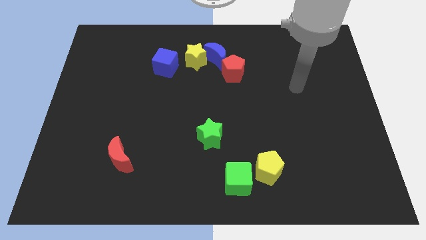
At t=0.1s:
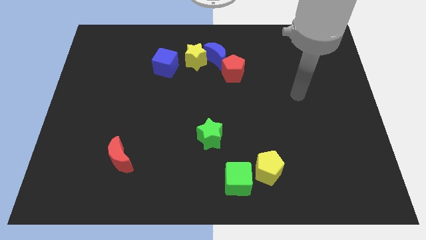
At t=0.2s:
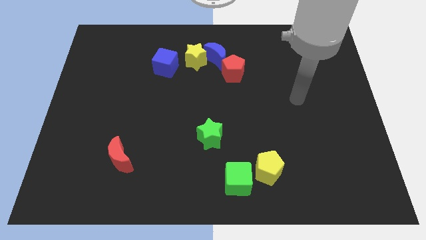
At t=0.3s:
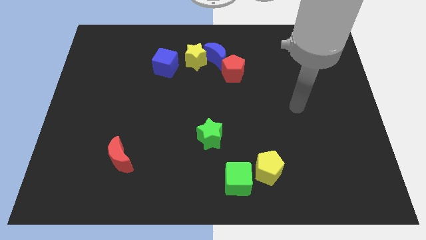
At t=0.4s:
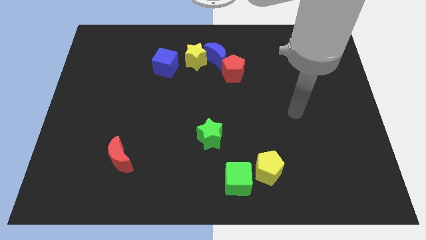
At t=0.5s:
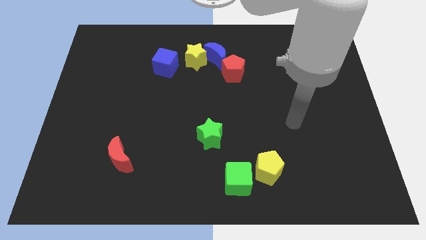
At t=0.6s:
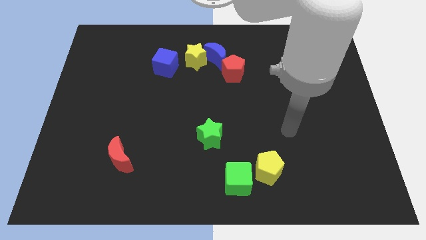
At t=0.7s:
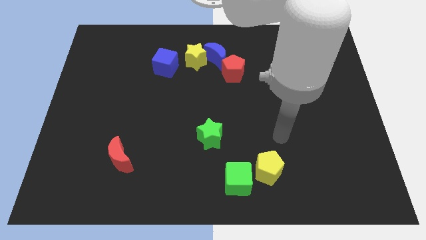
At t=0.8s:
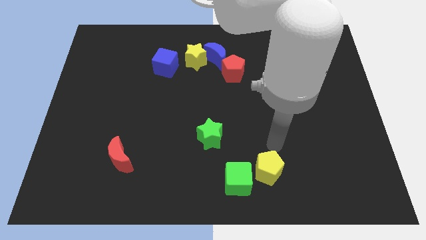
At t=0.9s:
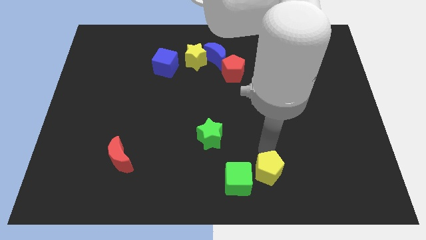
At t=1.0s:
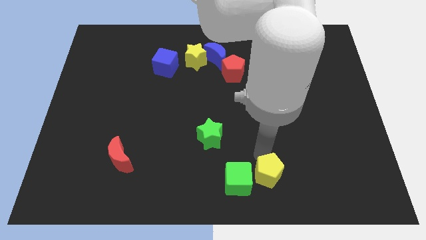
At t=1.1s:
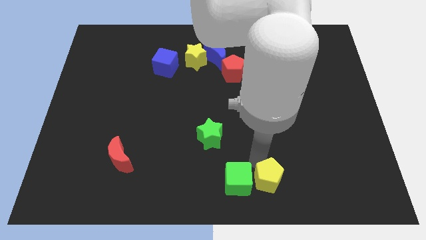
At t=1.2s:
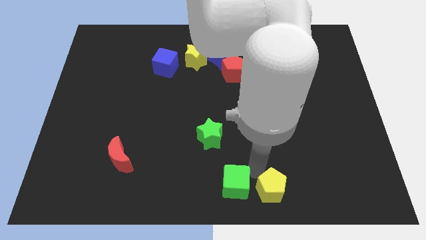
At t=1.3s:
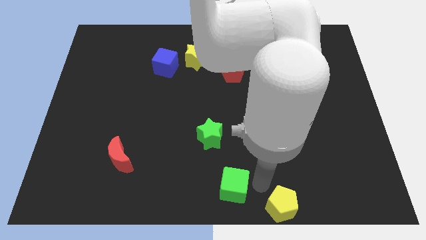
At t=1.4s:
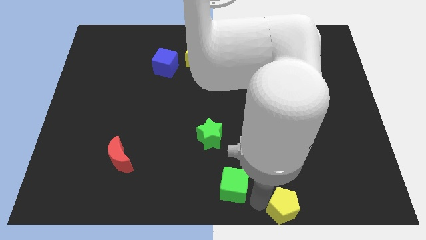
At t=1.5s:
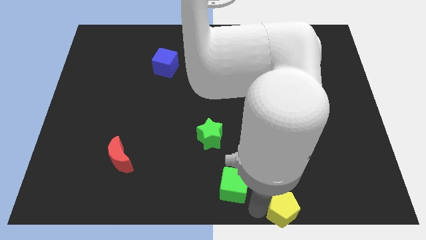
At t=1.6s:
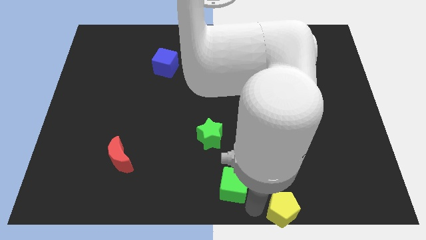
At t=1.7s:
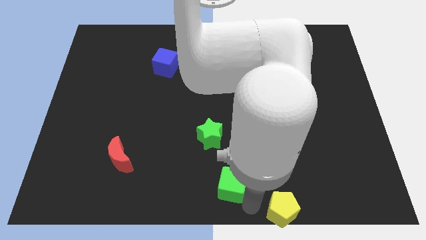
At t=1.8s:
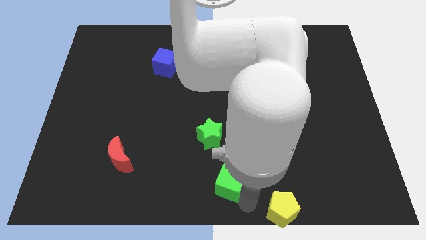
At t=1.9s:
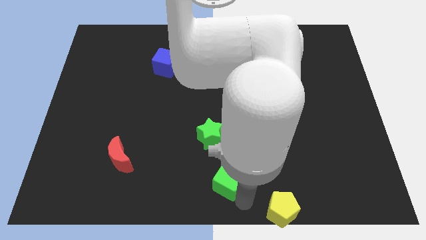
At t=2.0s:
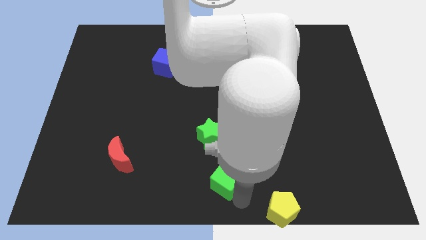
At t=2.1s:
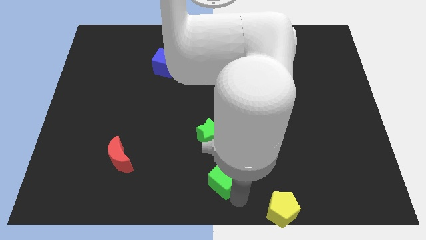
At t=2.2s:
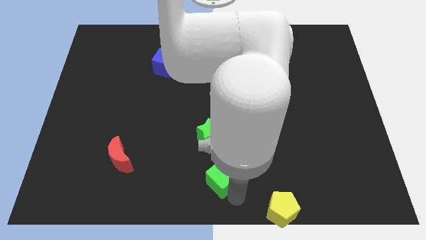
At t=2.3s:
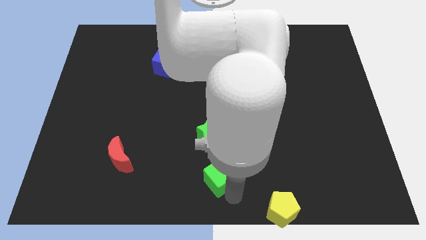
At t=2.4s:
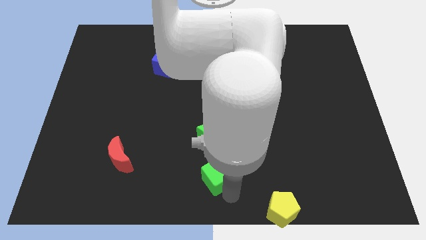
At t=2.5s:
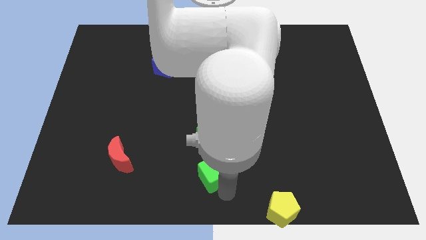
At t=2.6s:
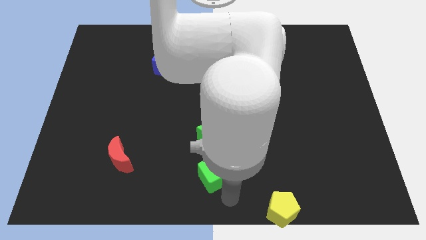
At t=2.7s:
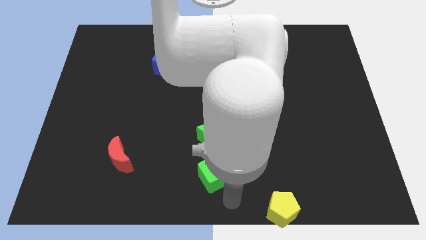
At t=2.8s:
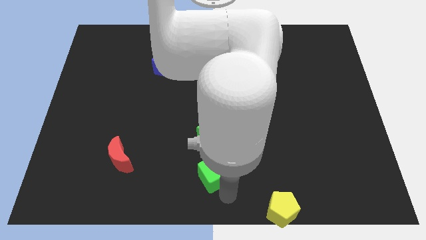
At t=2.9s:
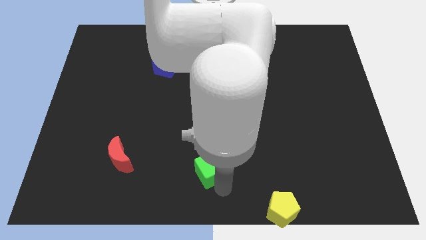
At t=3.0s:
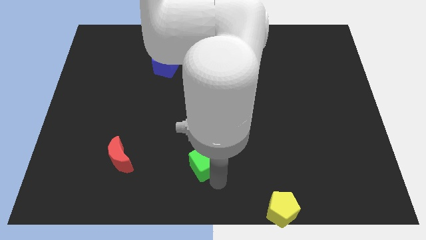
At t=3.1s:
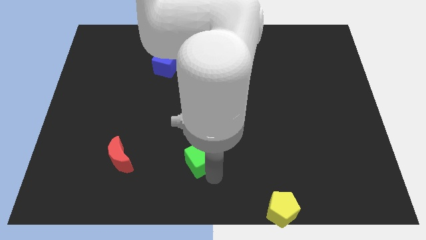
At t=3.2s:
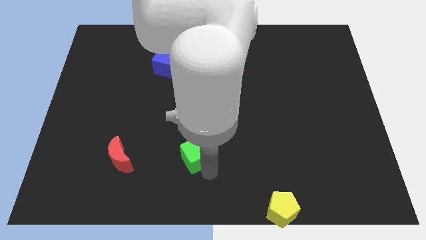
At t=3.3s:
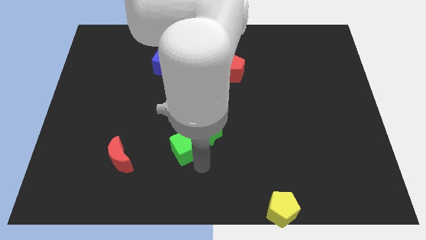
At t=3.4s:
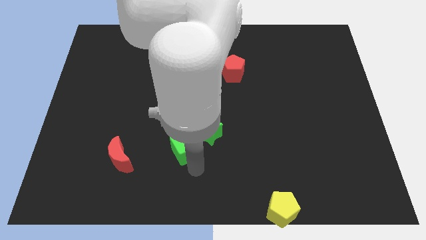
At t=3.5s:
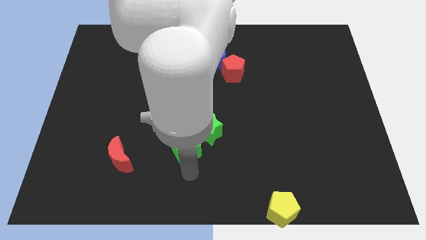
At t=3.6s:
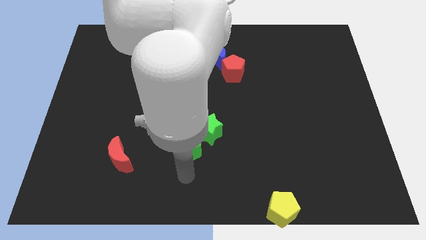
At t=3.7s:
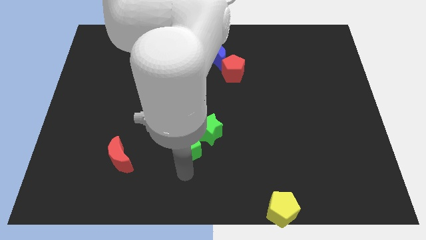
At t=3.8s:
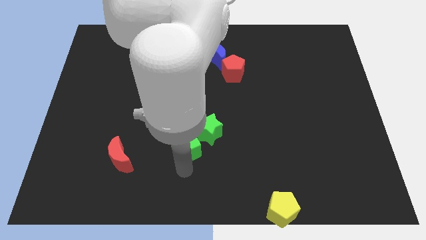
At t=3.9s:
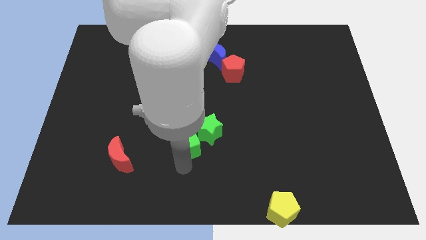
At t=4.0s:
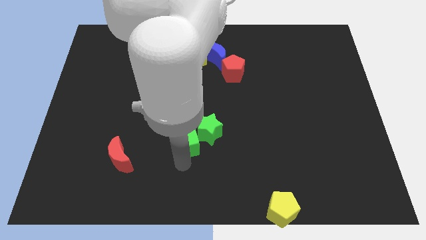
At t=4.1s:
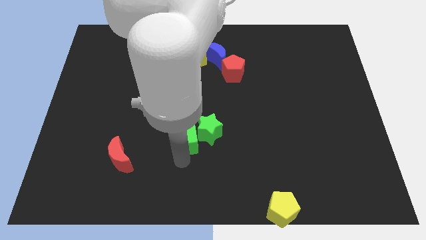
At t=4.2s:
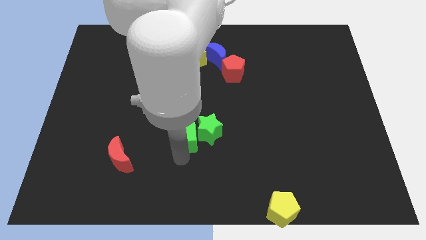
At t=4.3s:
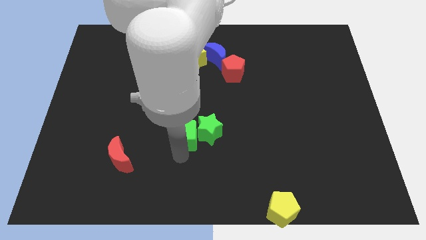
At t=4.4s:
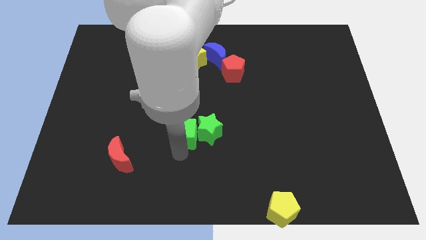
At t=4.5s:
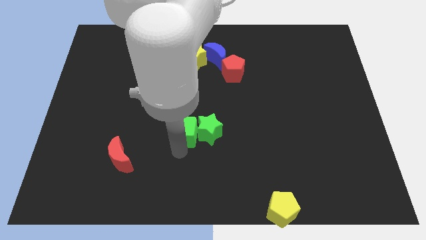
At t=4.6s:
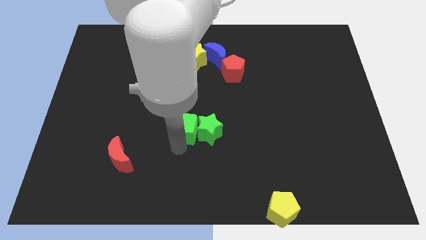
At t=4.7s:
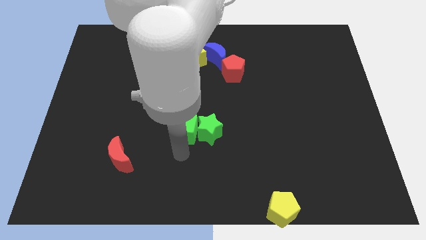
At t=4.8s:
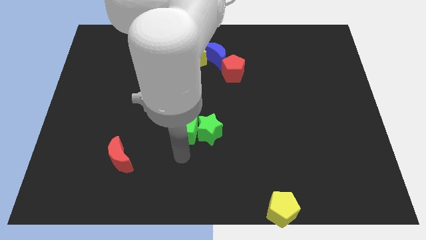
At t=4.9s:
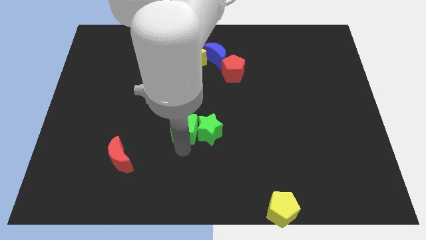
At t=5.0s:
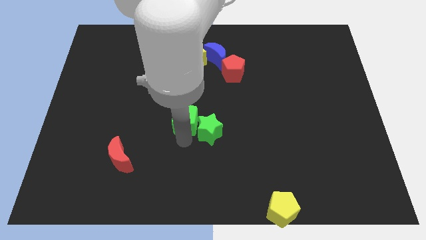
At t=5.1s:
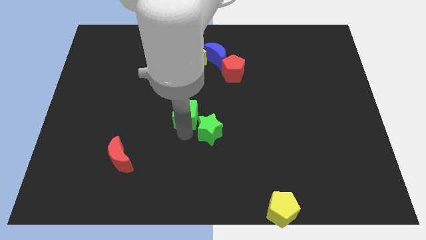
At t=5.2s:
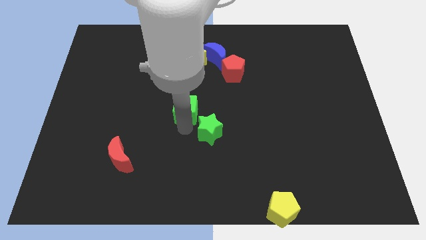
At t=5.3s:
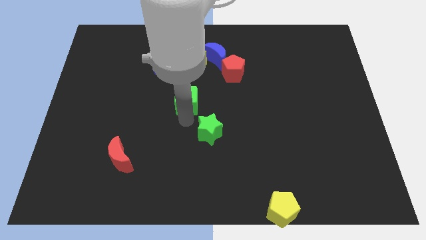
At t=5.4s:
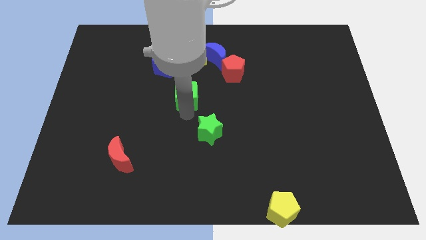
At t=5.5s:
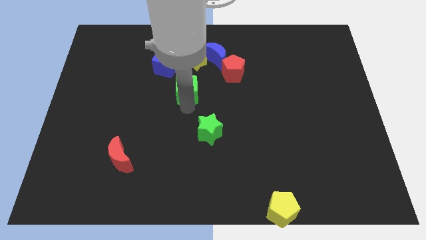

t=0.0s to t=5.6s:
put the green cube to the bottom right side of the blue cube

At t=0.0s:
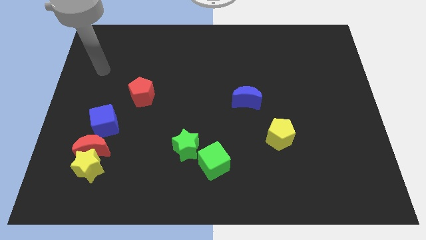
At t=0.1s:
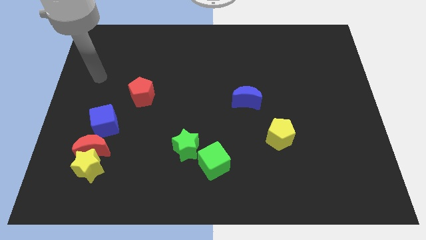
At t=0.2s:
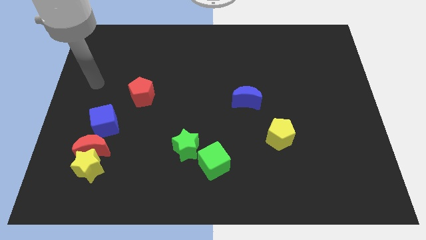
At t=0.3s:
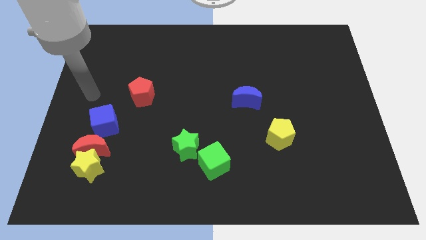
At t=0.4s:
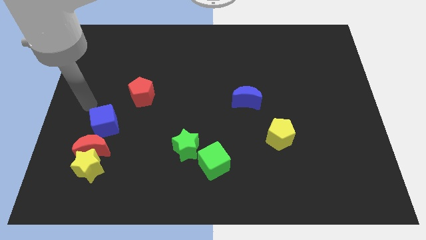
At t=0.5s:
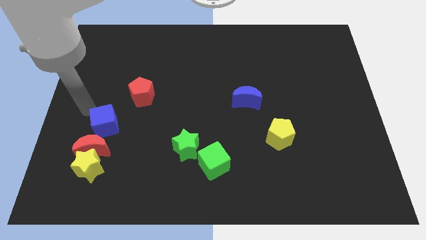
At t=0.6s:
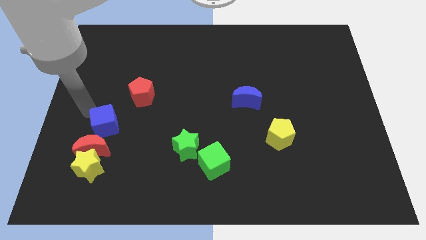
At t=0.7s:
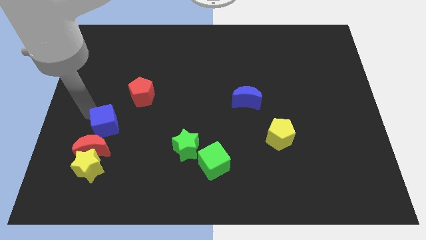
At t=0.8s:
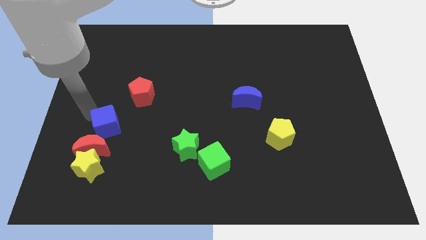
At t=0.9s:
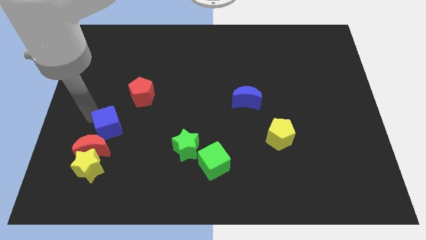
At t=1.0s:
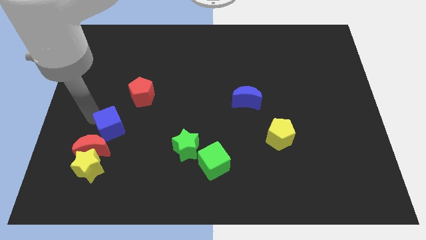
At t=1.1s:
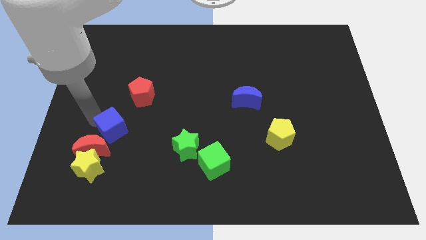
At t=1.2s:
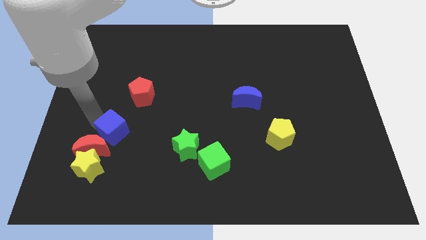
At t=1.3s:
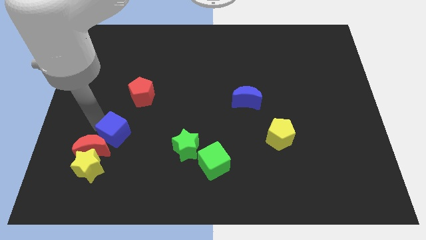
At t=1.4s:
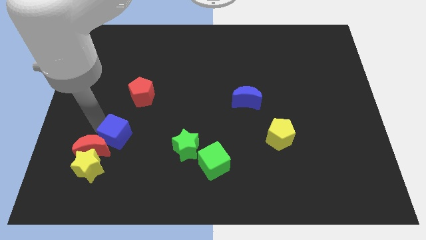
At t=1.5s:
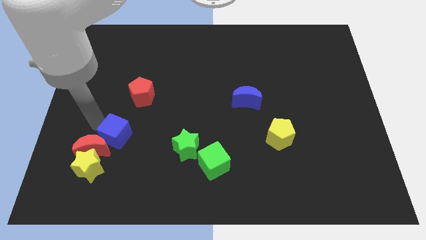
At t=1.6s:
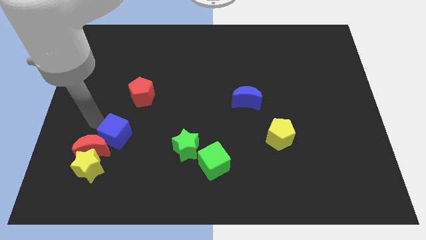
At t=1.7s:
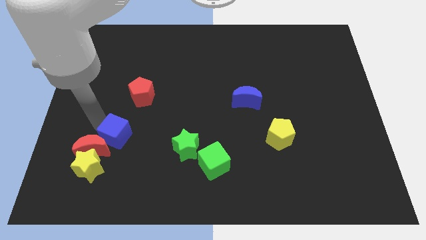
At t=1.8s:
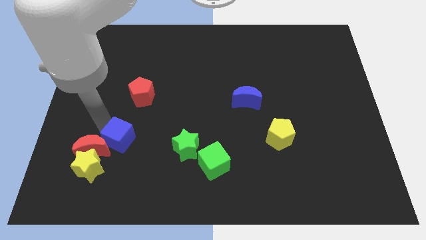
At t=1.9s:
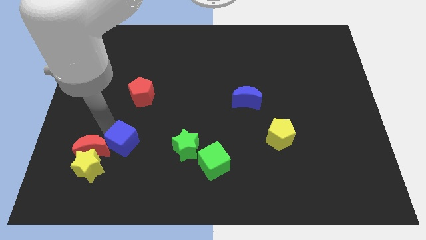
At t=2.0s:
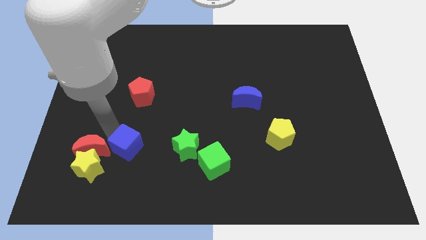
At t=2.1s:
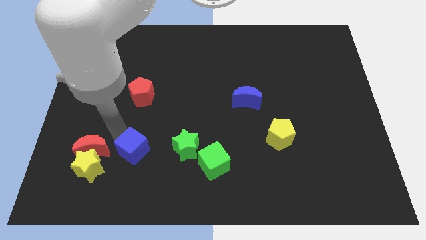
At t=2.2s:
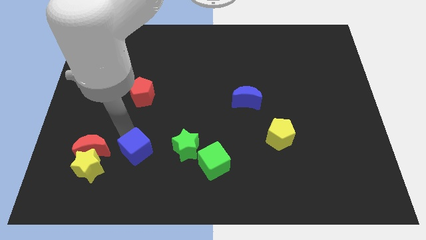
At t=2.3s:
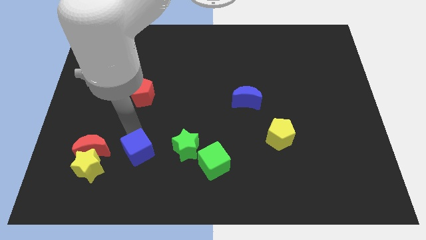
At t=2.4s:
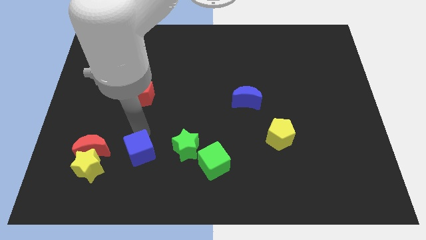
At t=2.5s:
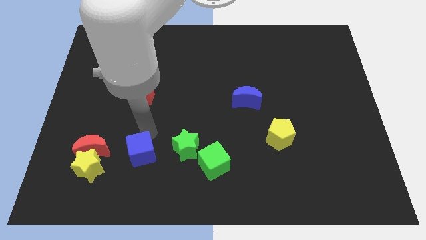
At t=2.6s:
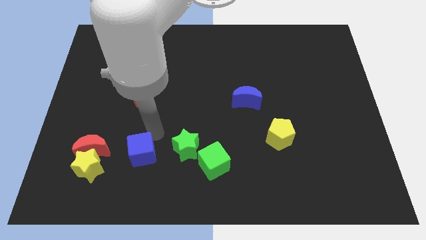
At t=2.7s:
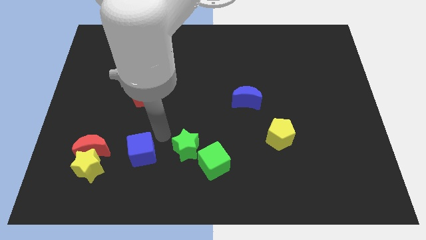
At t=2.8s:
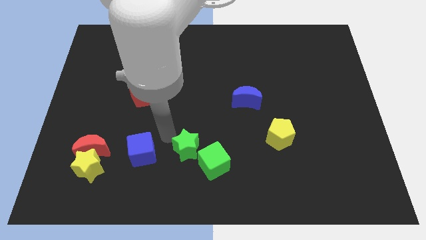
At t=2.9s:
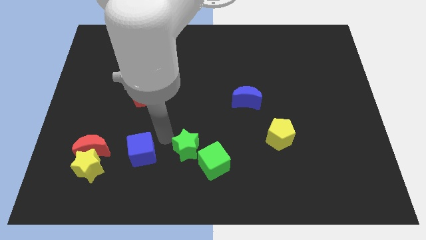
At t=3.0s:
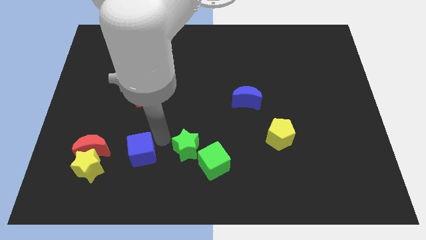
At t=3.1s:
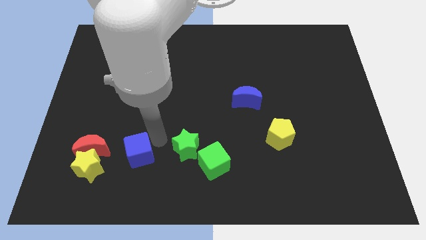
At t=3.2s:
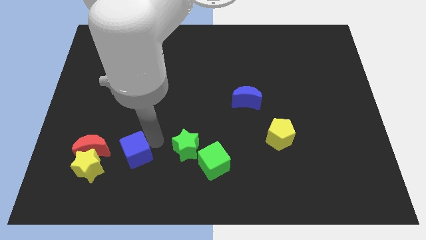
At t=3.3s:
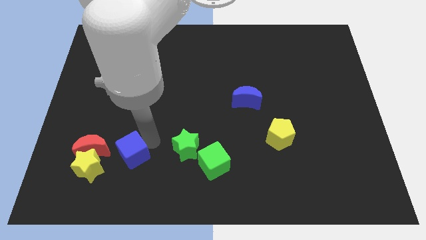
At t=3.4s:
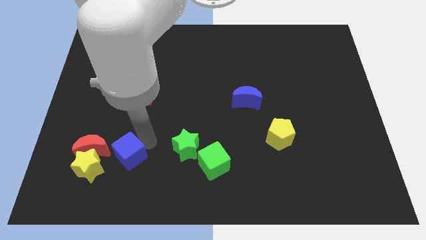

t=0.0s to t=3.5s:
push the blue cube to the bottom right side of the red moon
